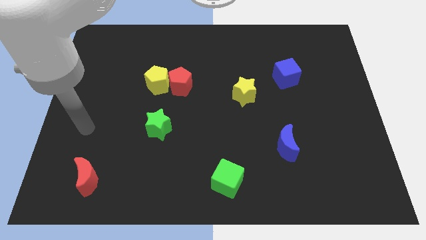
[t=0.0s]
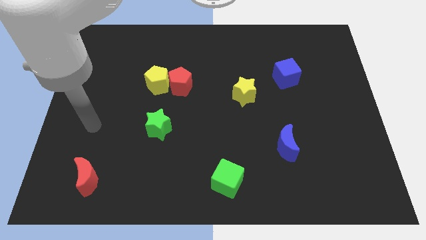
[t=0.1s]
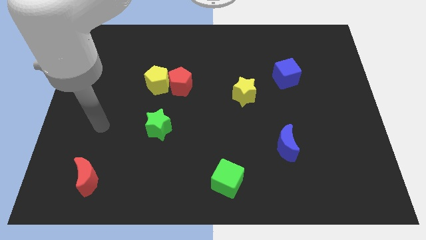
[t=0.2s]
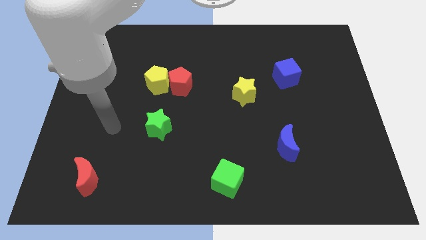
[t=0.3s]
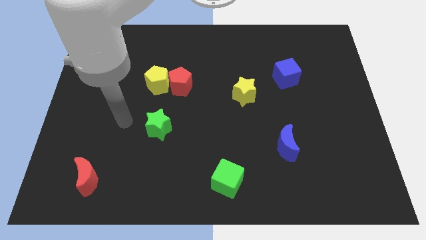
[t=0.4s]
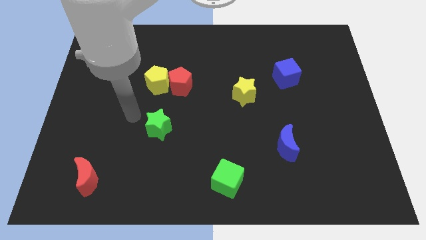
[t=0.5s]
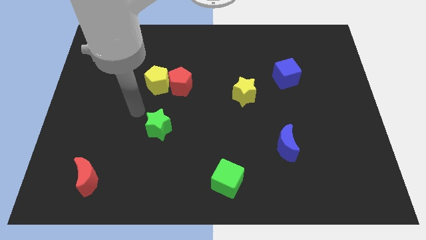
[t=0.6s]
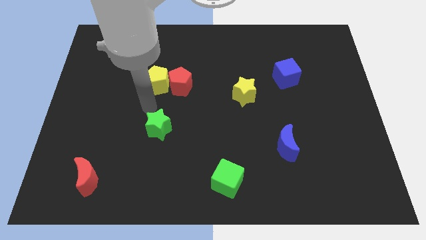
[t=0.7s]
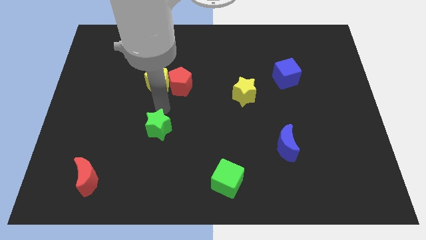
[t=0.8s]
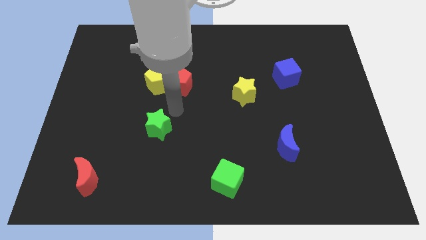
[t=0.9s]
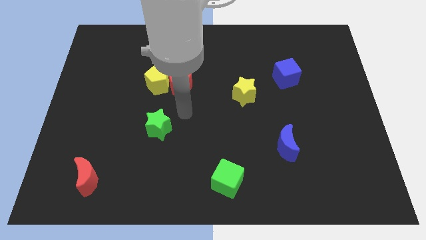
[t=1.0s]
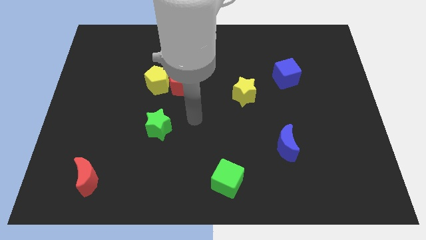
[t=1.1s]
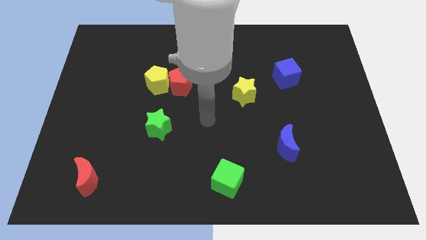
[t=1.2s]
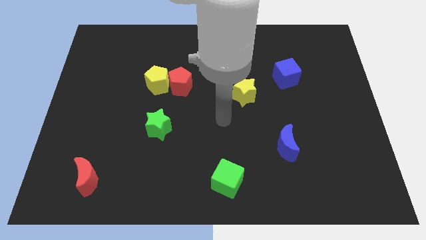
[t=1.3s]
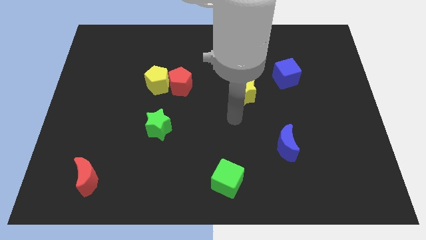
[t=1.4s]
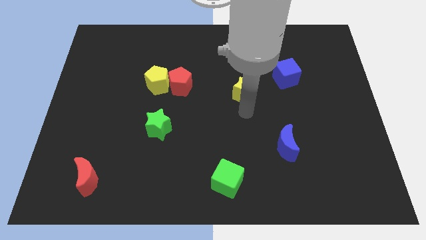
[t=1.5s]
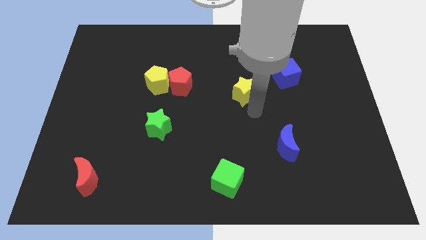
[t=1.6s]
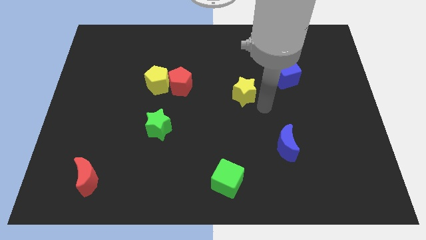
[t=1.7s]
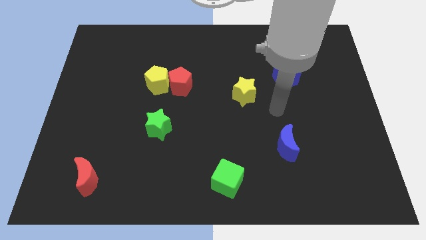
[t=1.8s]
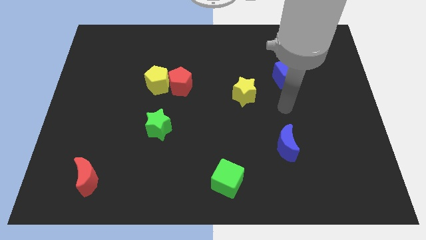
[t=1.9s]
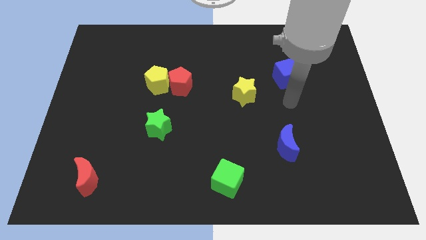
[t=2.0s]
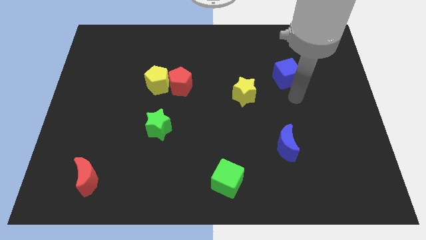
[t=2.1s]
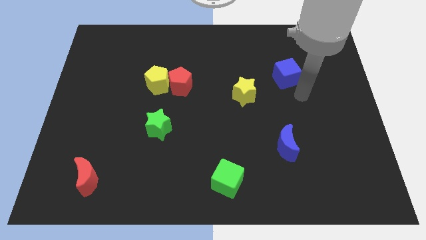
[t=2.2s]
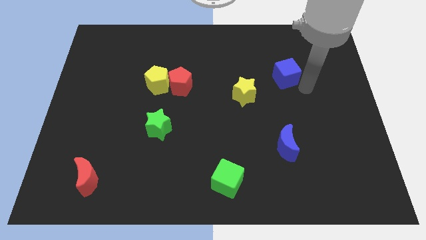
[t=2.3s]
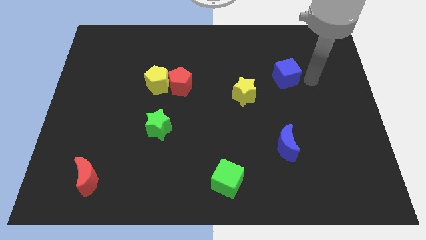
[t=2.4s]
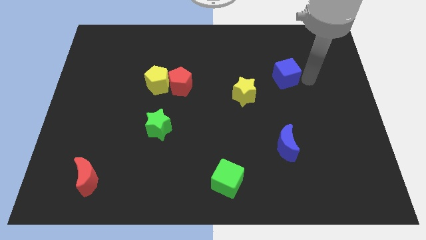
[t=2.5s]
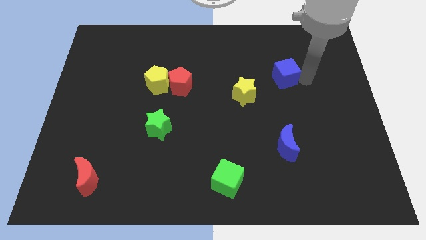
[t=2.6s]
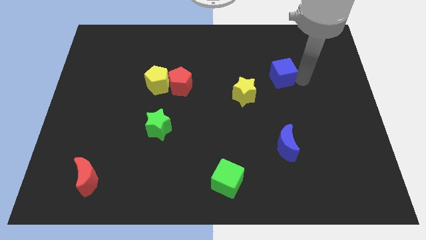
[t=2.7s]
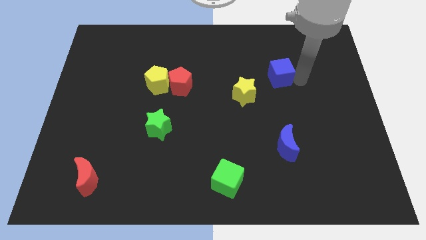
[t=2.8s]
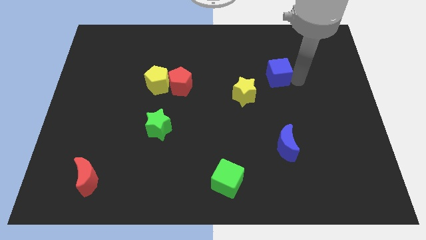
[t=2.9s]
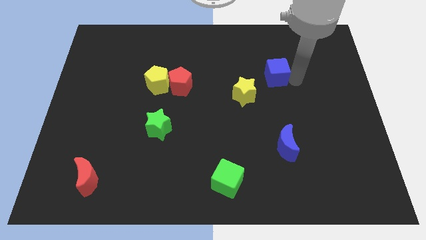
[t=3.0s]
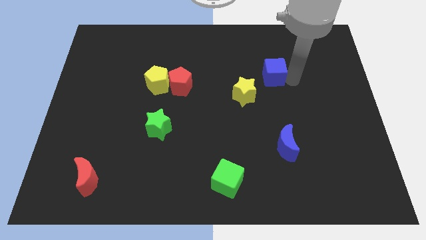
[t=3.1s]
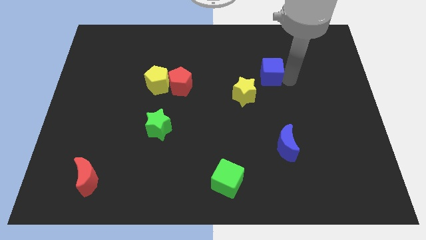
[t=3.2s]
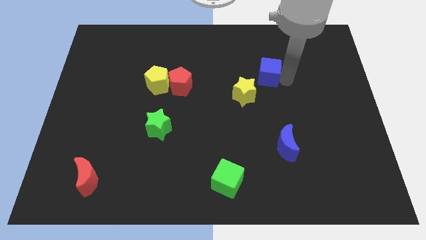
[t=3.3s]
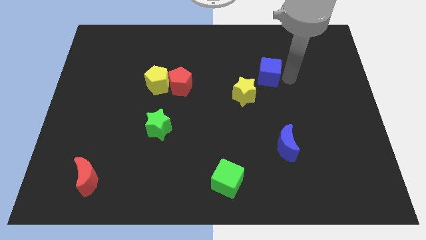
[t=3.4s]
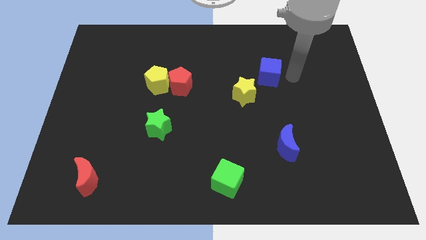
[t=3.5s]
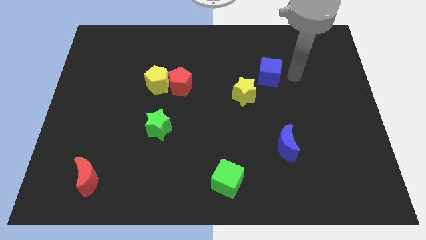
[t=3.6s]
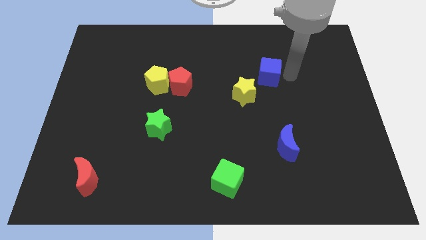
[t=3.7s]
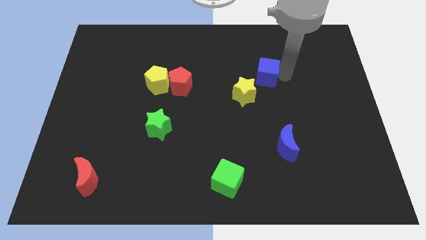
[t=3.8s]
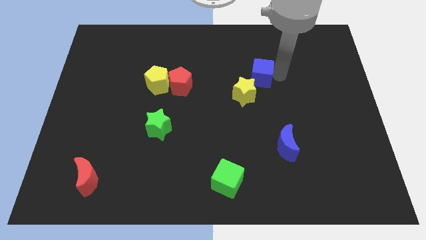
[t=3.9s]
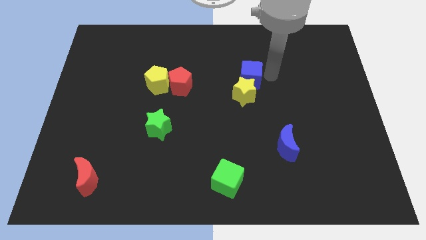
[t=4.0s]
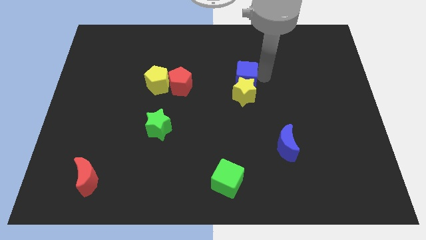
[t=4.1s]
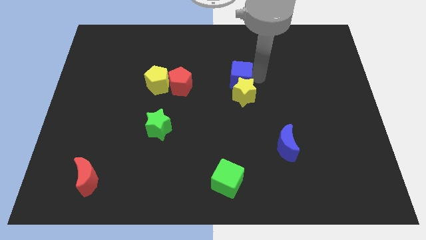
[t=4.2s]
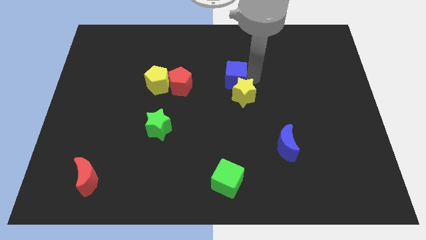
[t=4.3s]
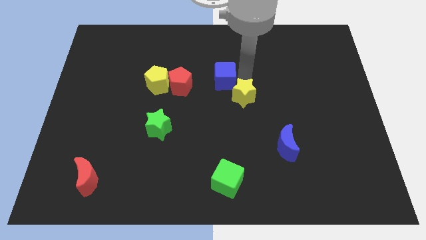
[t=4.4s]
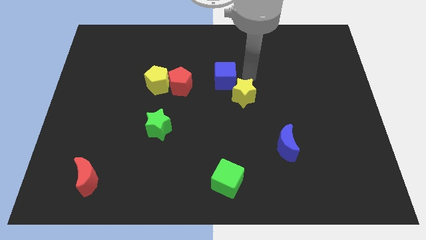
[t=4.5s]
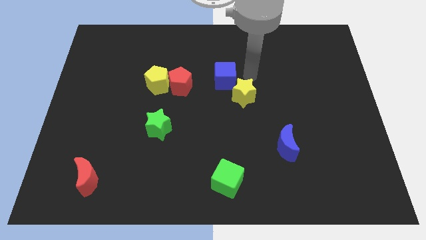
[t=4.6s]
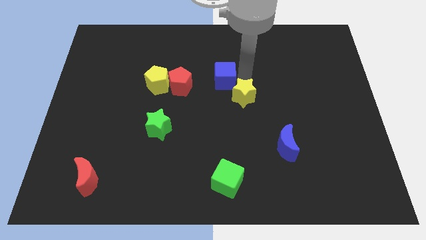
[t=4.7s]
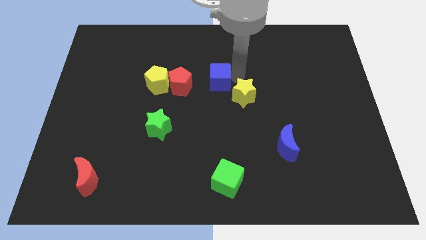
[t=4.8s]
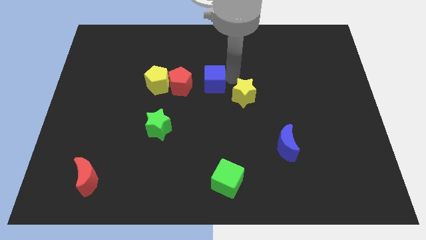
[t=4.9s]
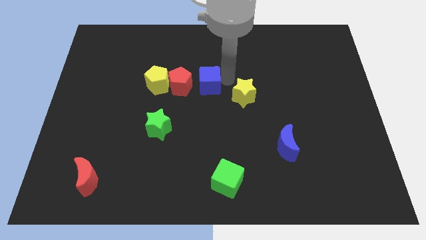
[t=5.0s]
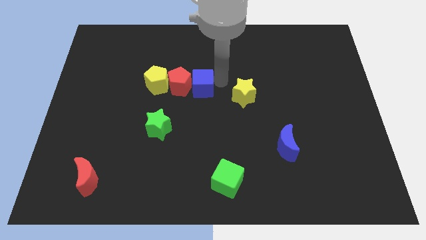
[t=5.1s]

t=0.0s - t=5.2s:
push the blue cube towards the red pentagon

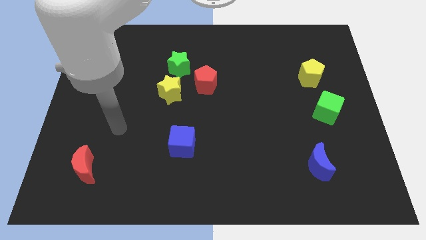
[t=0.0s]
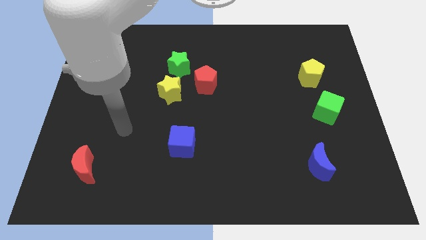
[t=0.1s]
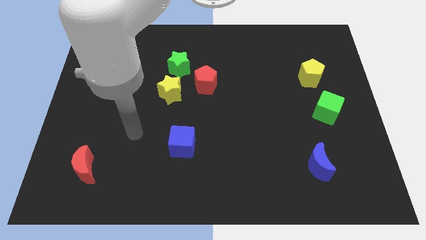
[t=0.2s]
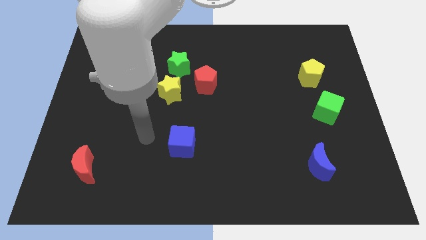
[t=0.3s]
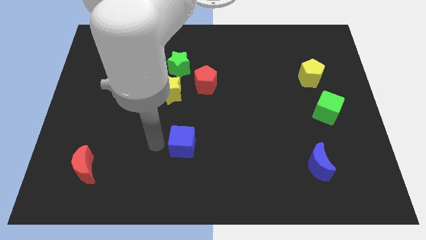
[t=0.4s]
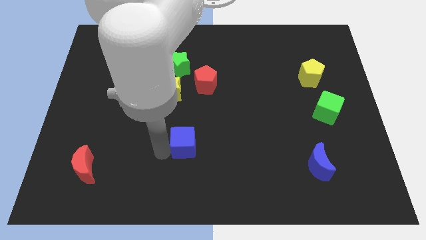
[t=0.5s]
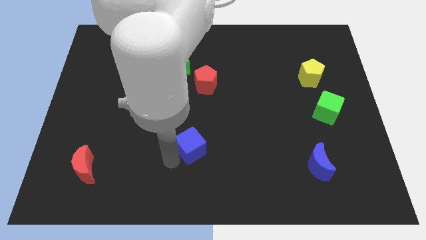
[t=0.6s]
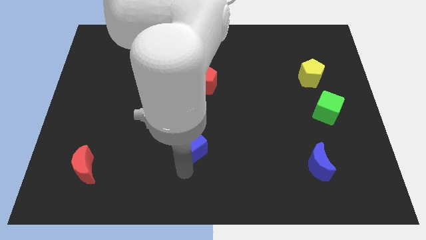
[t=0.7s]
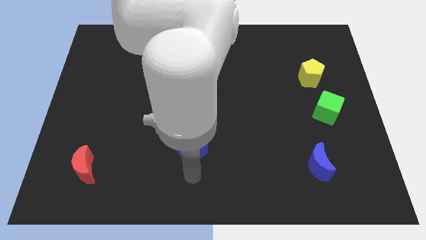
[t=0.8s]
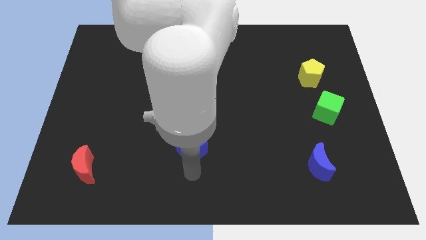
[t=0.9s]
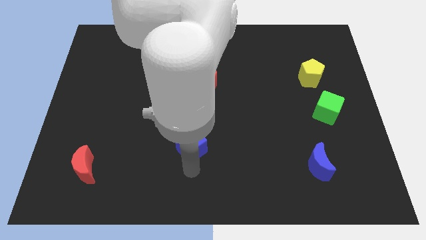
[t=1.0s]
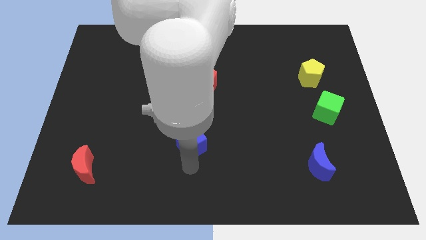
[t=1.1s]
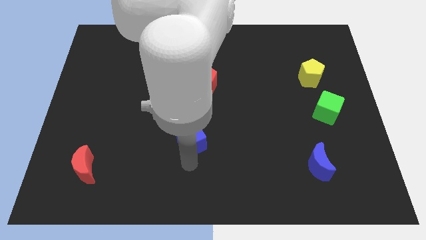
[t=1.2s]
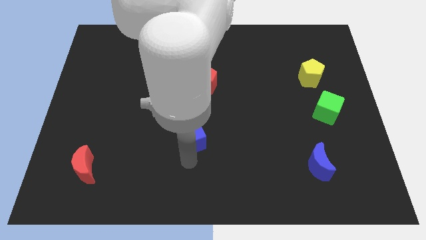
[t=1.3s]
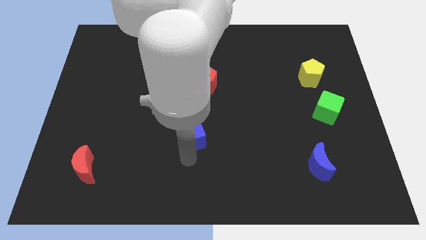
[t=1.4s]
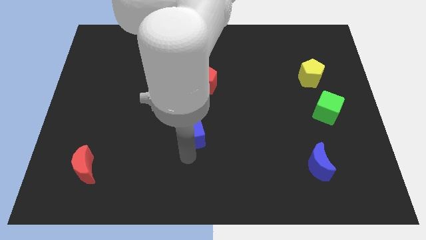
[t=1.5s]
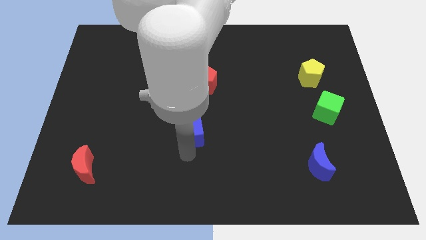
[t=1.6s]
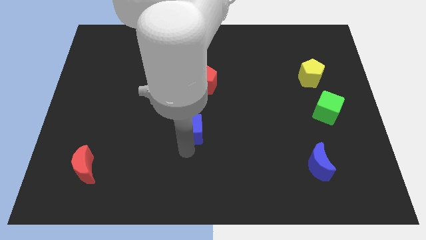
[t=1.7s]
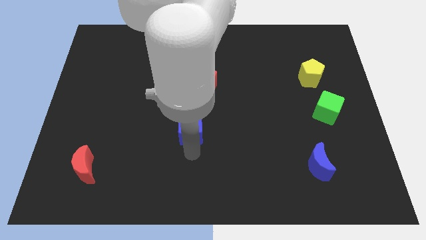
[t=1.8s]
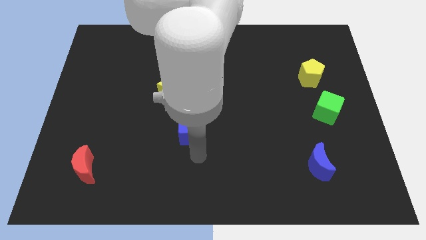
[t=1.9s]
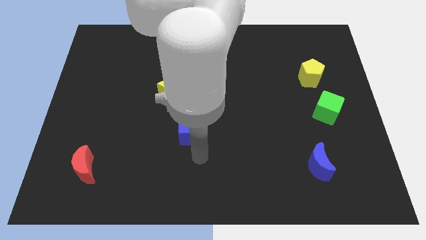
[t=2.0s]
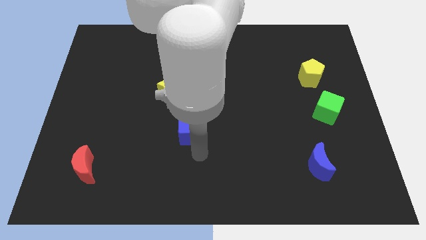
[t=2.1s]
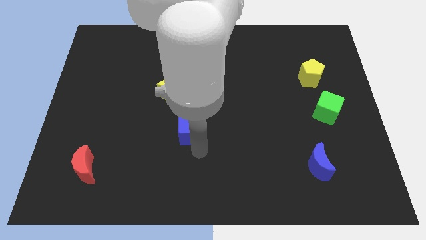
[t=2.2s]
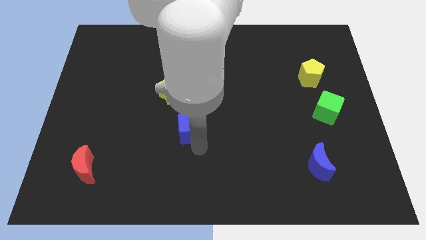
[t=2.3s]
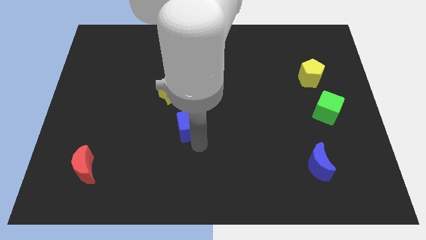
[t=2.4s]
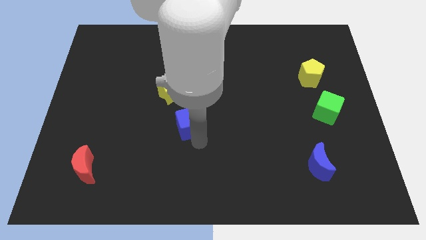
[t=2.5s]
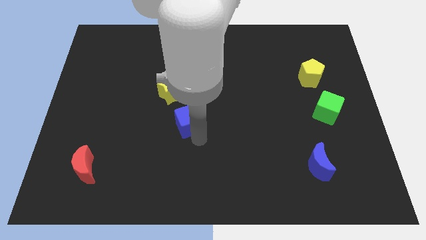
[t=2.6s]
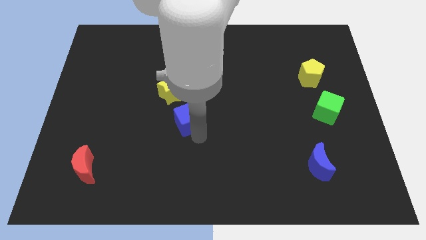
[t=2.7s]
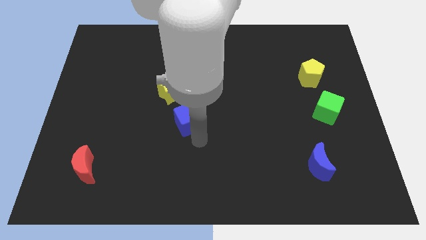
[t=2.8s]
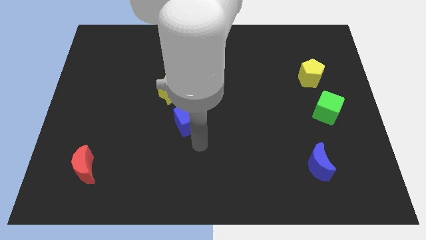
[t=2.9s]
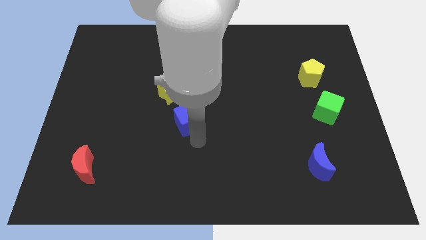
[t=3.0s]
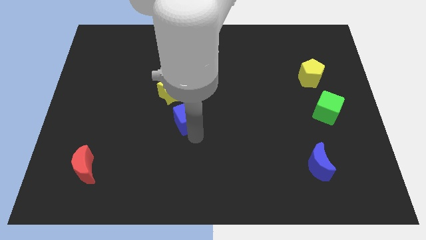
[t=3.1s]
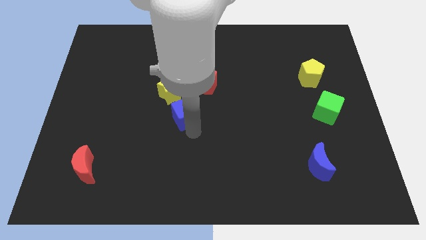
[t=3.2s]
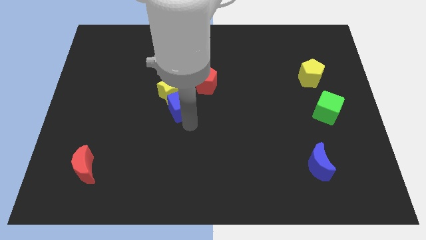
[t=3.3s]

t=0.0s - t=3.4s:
slide the blue cube to the yellow star
